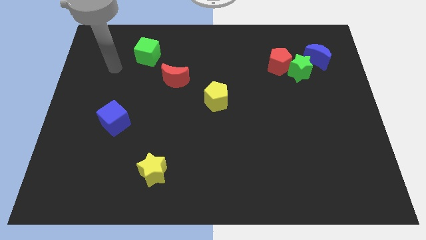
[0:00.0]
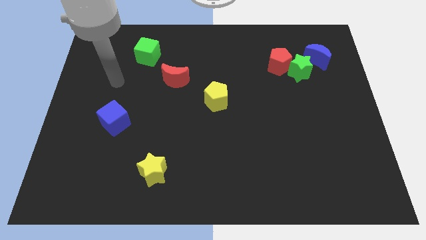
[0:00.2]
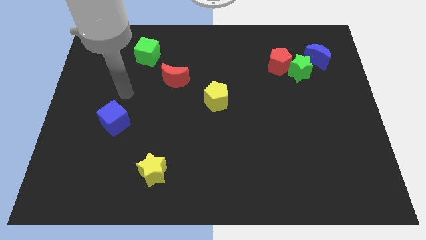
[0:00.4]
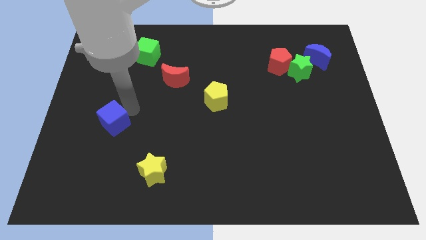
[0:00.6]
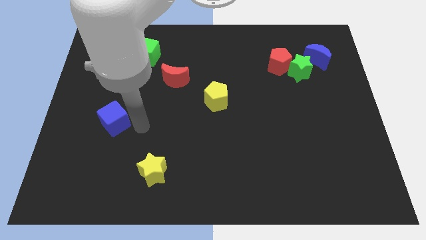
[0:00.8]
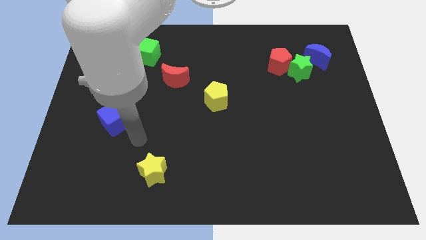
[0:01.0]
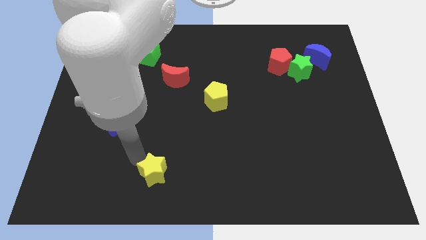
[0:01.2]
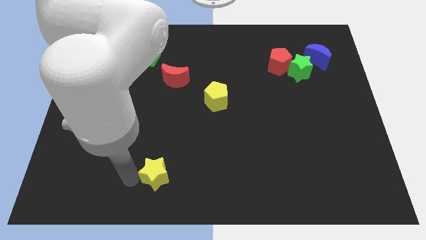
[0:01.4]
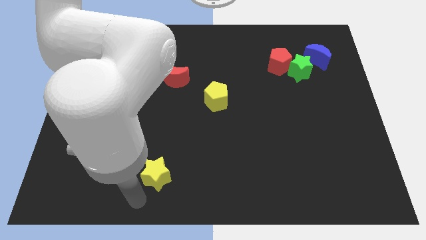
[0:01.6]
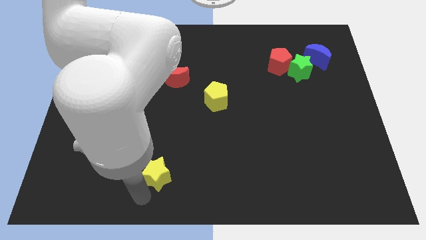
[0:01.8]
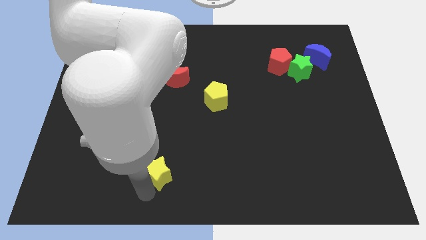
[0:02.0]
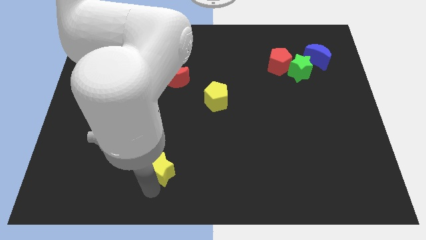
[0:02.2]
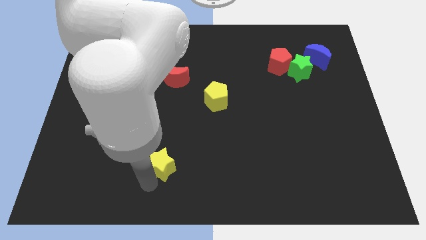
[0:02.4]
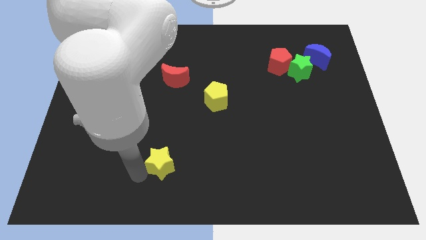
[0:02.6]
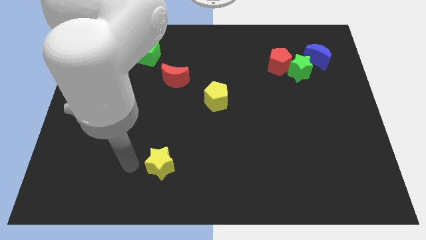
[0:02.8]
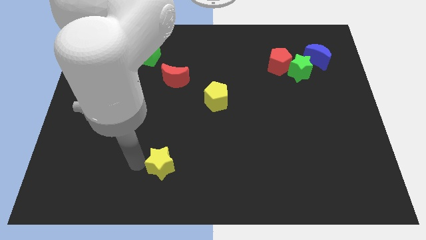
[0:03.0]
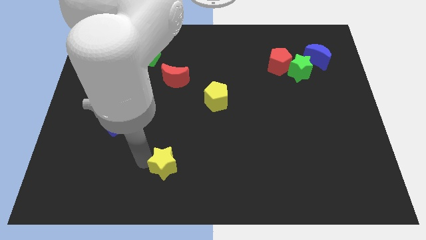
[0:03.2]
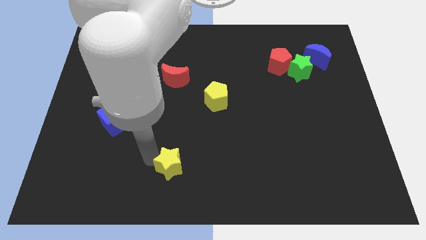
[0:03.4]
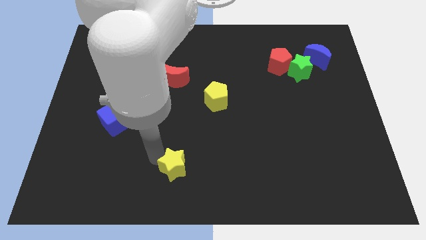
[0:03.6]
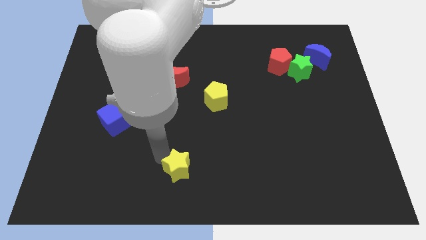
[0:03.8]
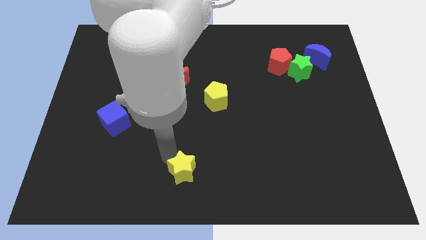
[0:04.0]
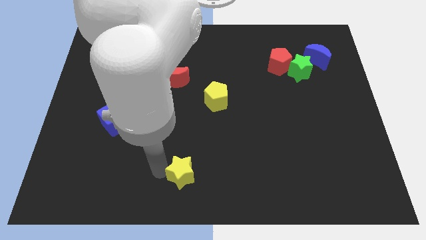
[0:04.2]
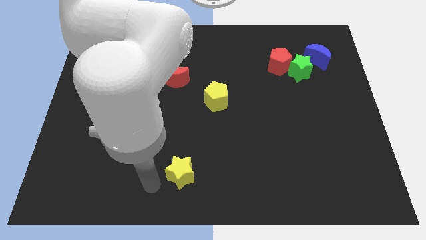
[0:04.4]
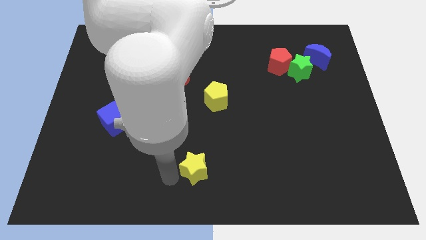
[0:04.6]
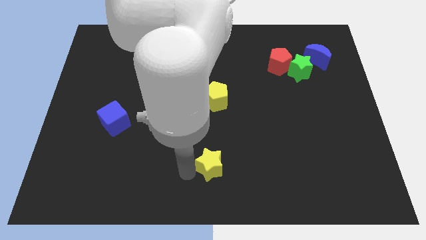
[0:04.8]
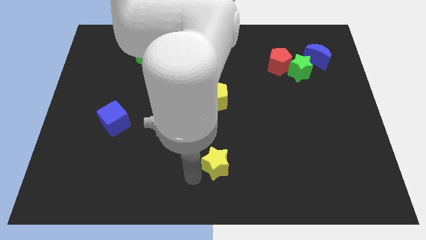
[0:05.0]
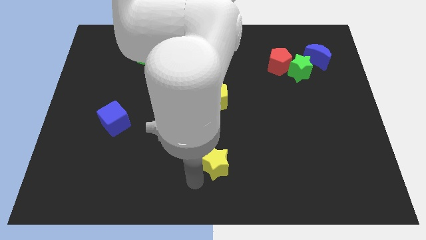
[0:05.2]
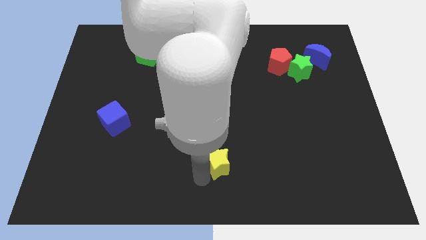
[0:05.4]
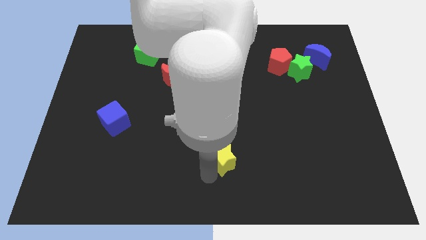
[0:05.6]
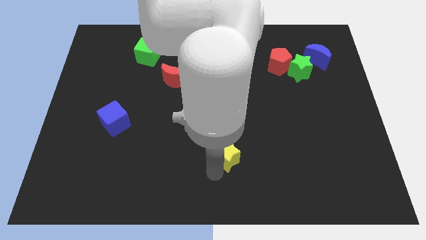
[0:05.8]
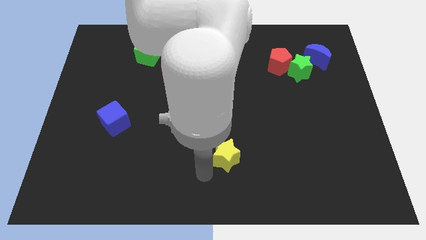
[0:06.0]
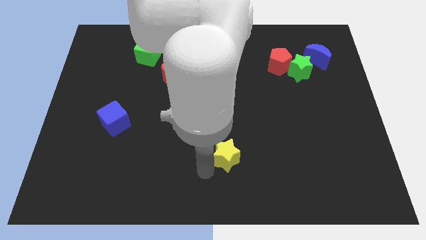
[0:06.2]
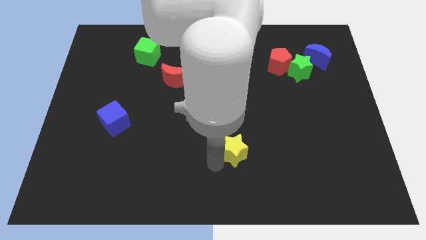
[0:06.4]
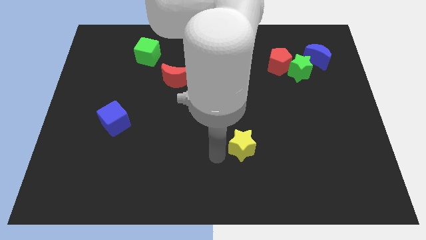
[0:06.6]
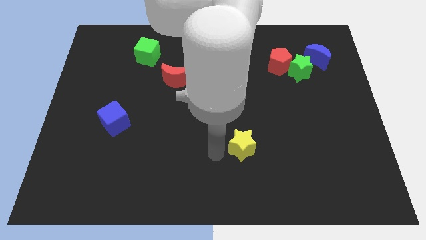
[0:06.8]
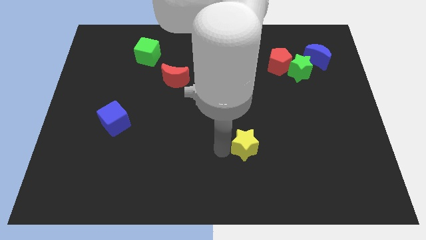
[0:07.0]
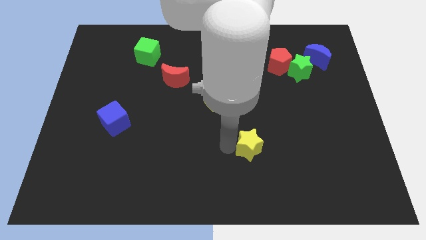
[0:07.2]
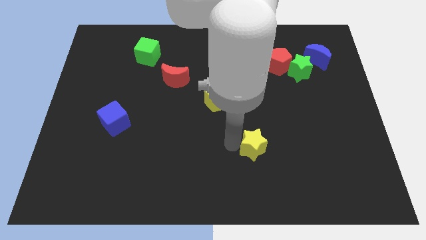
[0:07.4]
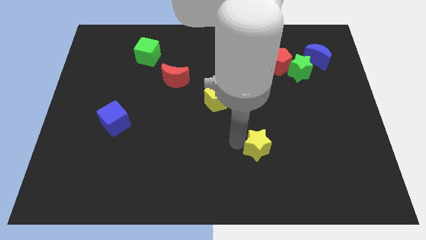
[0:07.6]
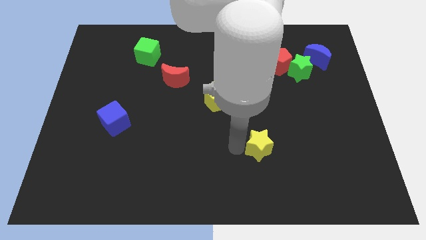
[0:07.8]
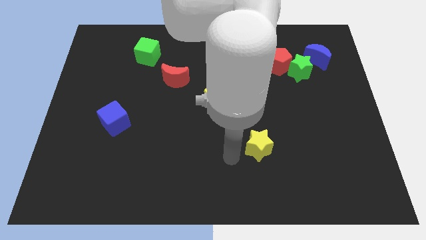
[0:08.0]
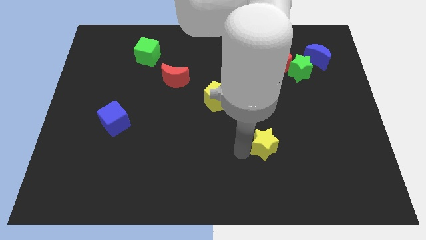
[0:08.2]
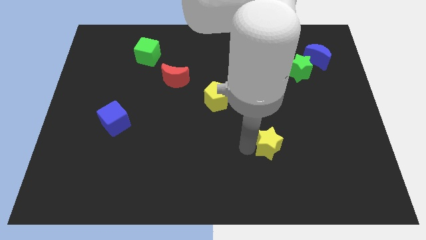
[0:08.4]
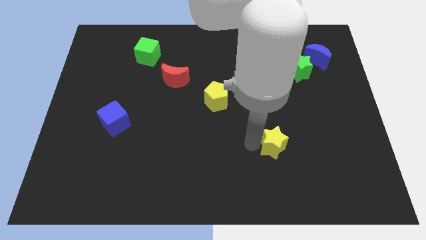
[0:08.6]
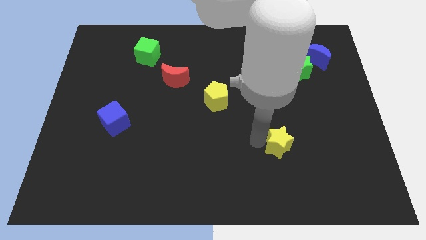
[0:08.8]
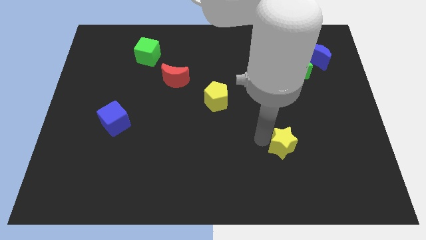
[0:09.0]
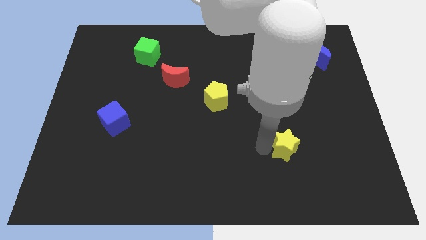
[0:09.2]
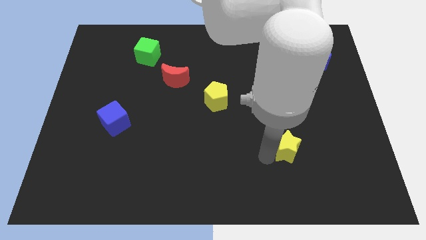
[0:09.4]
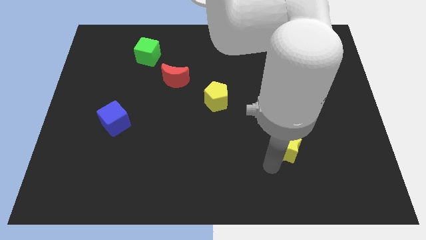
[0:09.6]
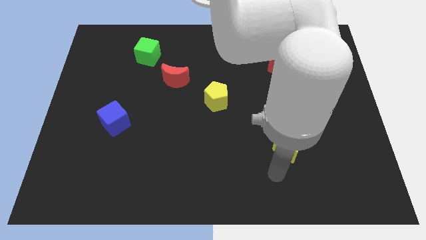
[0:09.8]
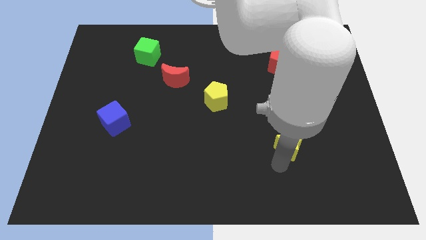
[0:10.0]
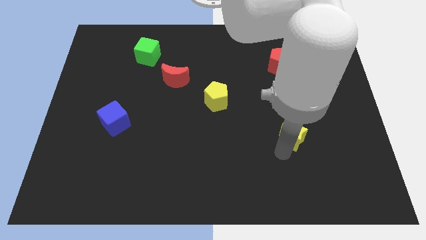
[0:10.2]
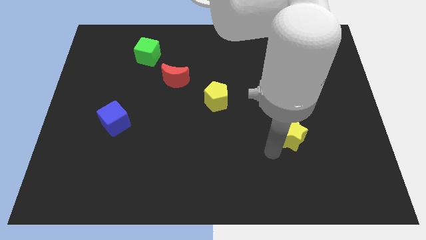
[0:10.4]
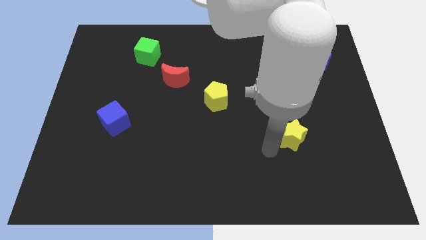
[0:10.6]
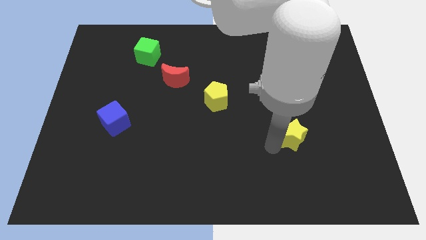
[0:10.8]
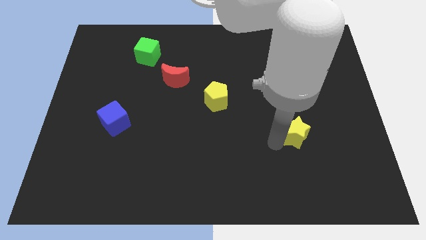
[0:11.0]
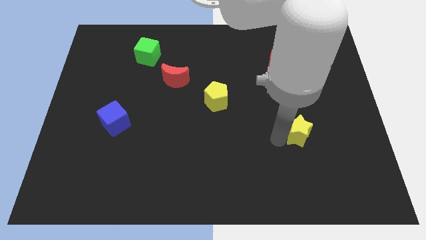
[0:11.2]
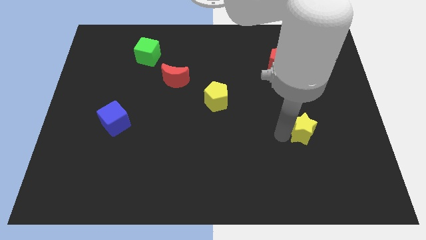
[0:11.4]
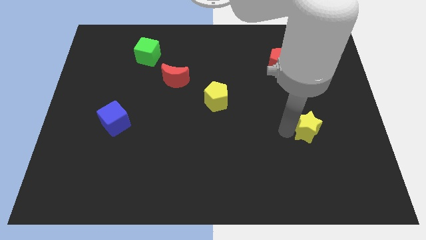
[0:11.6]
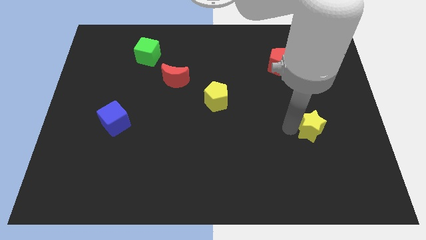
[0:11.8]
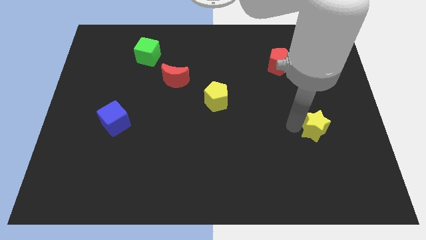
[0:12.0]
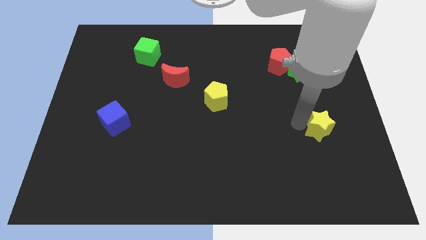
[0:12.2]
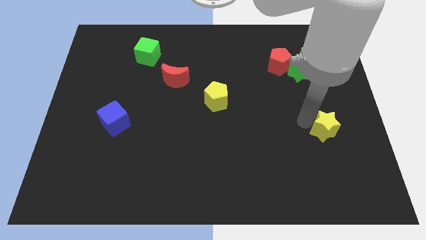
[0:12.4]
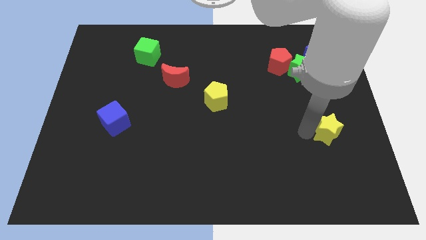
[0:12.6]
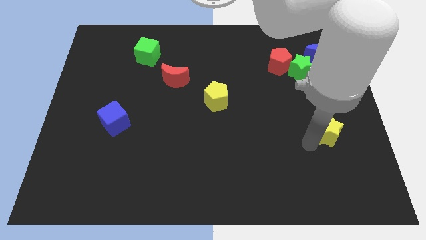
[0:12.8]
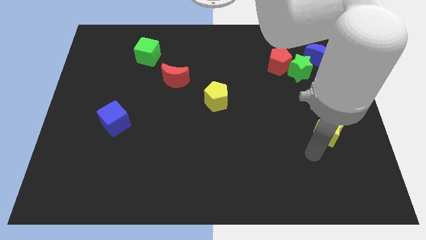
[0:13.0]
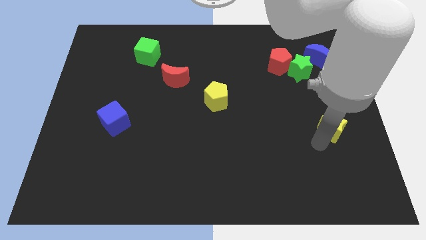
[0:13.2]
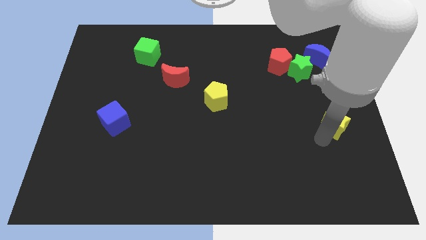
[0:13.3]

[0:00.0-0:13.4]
put the yellow star to the right side of the board
